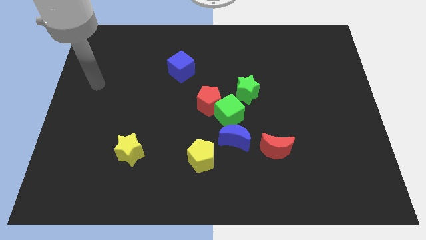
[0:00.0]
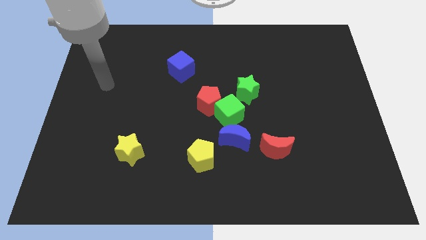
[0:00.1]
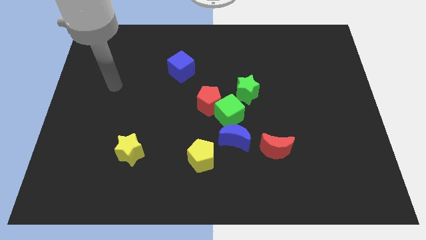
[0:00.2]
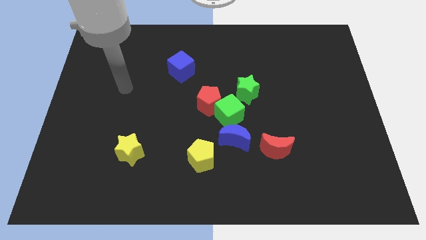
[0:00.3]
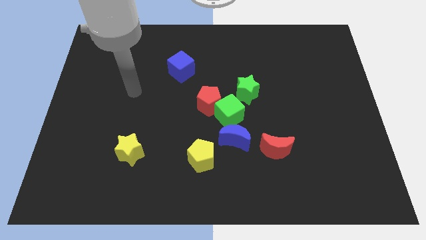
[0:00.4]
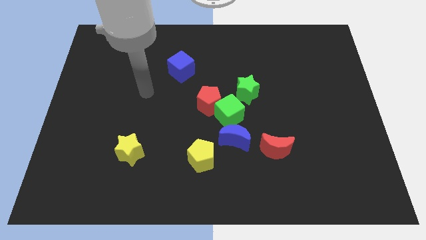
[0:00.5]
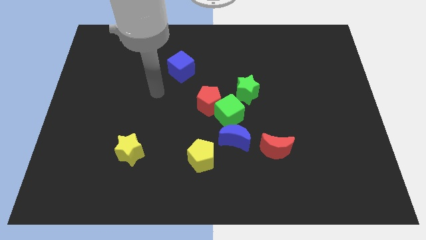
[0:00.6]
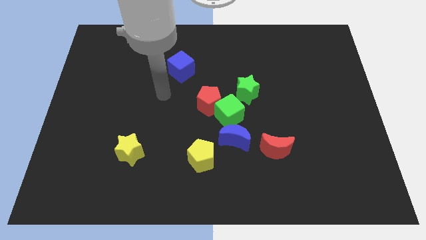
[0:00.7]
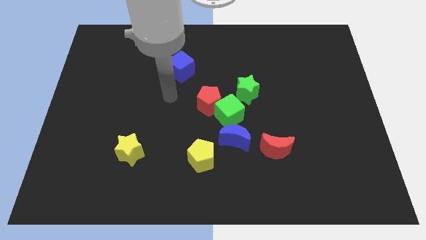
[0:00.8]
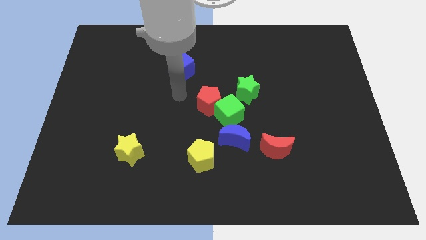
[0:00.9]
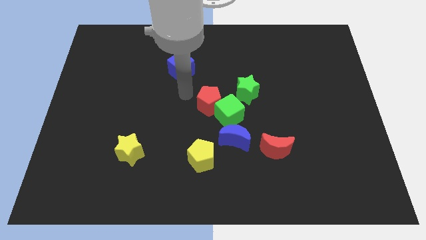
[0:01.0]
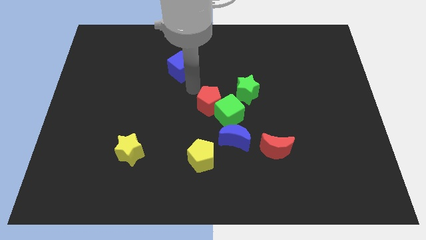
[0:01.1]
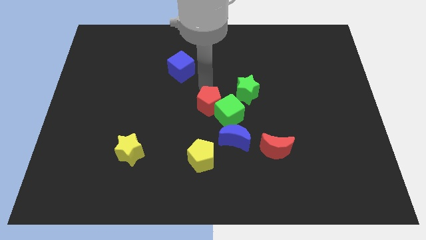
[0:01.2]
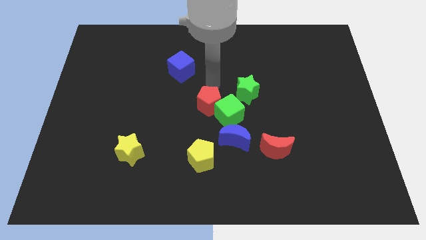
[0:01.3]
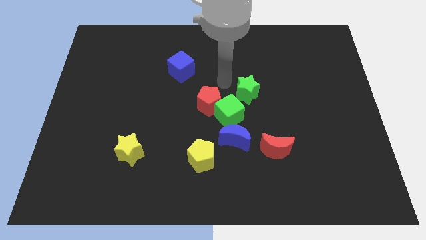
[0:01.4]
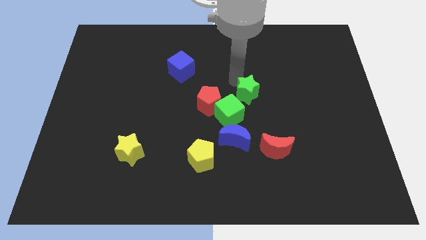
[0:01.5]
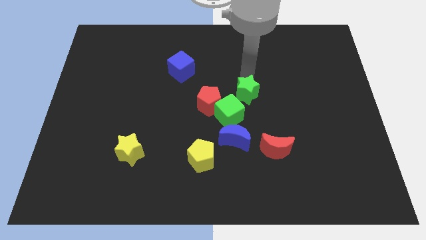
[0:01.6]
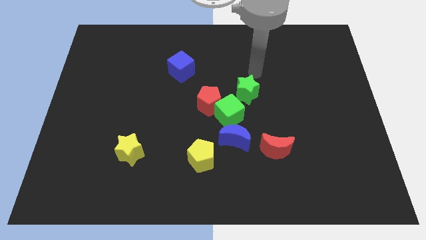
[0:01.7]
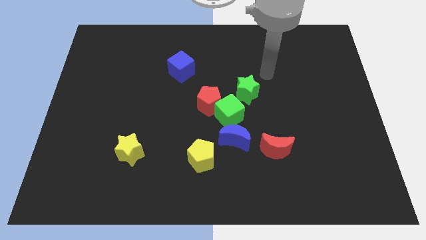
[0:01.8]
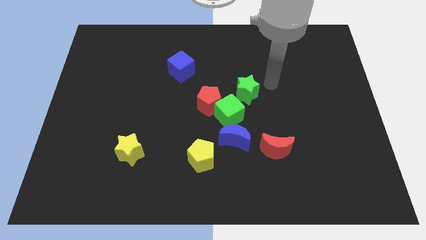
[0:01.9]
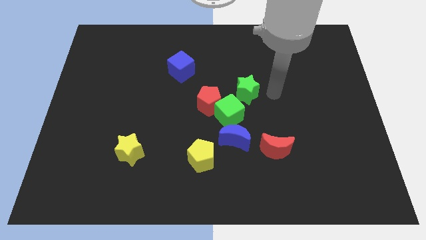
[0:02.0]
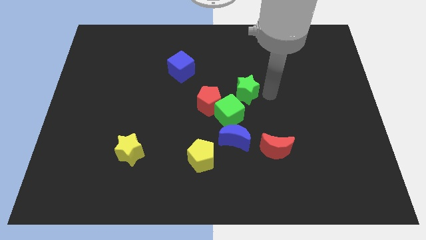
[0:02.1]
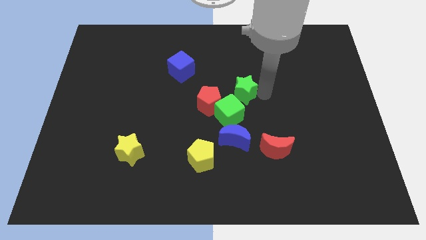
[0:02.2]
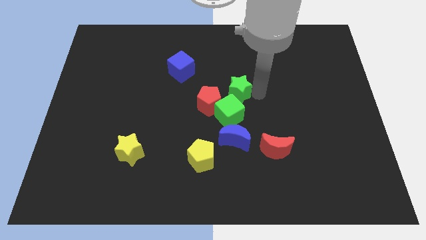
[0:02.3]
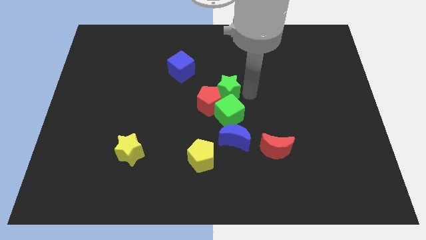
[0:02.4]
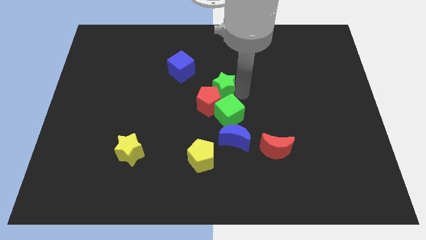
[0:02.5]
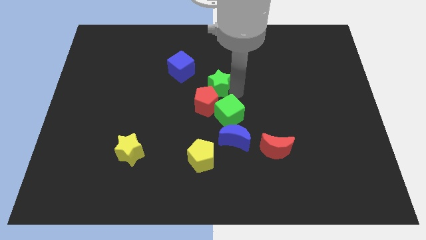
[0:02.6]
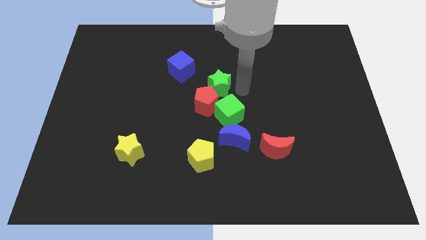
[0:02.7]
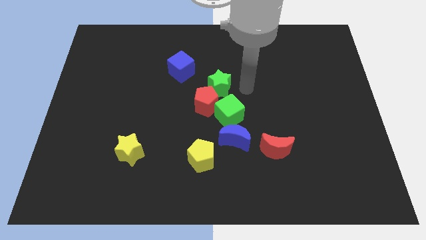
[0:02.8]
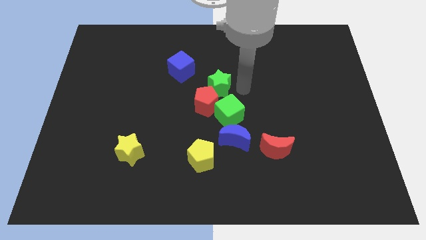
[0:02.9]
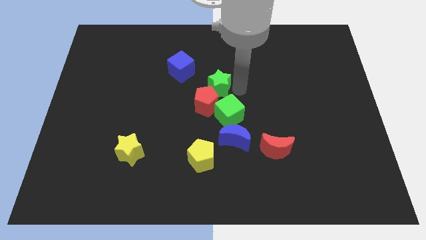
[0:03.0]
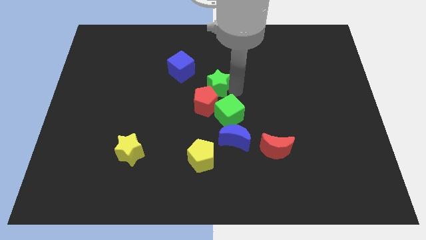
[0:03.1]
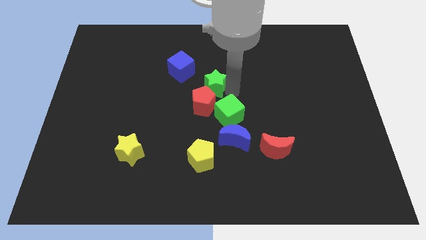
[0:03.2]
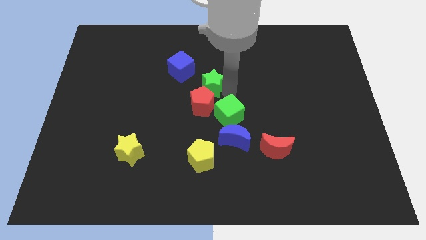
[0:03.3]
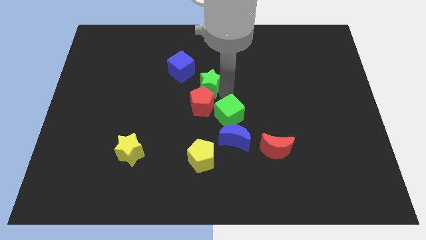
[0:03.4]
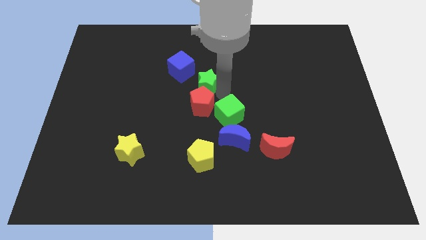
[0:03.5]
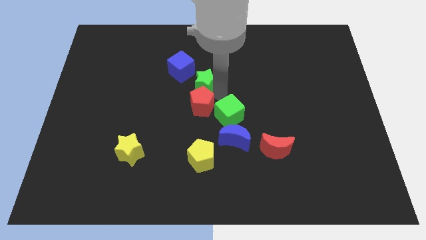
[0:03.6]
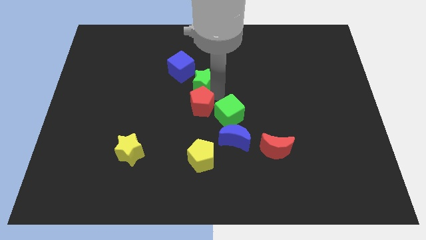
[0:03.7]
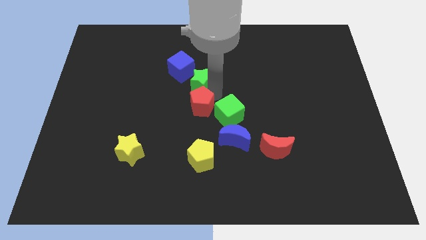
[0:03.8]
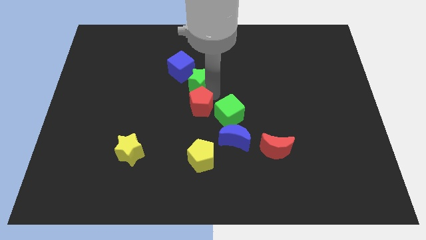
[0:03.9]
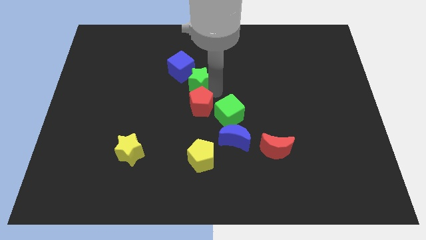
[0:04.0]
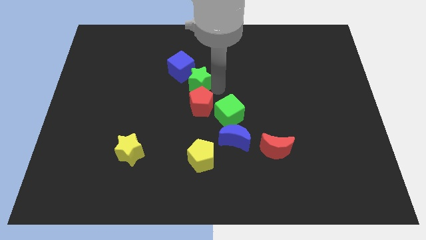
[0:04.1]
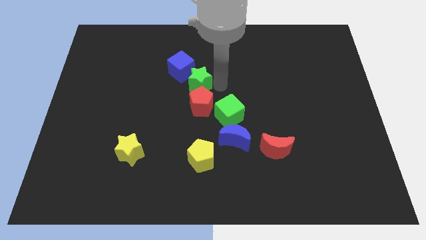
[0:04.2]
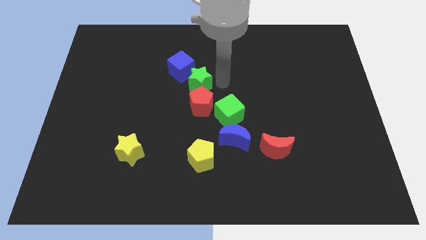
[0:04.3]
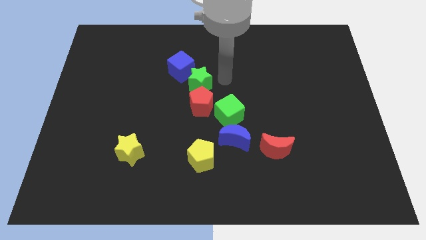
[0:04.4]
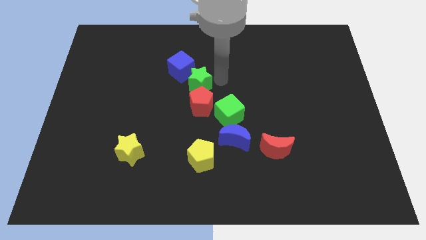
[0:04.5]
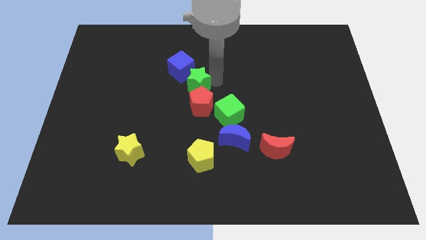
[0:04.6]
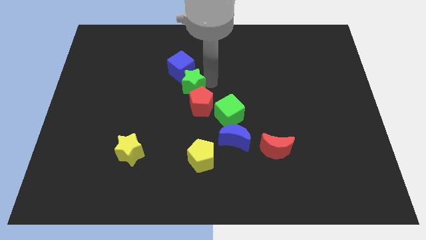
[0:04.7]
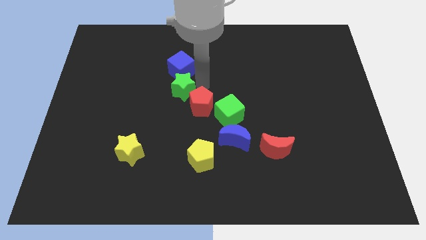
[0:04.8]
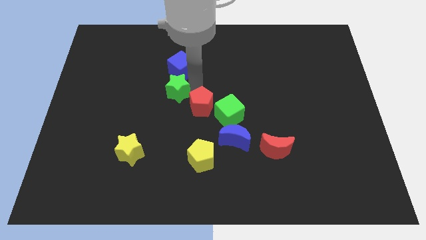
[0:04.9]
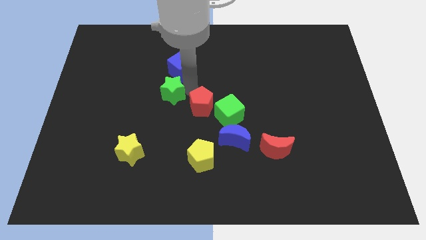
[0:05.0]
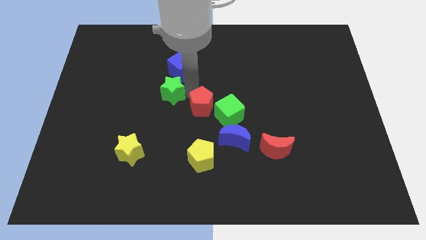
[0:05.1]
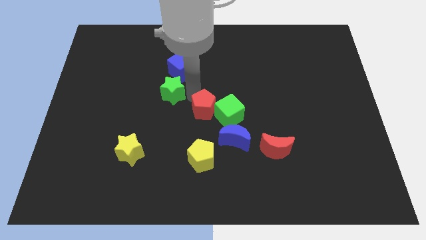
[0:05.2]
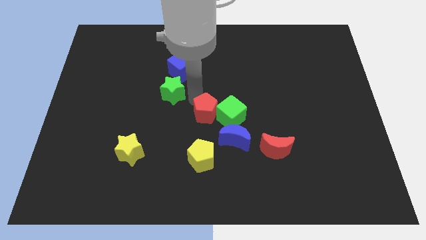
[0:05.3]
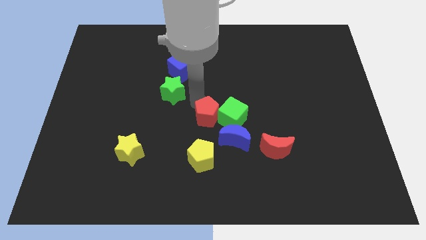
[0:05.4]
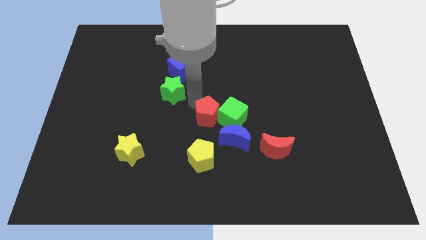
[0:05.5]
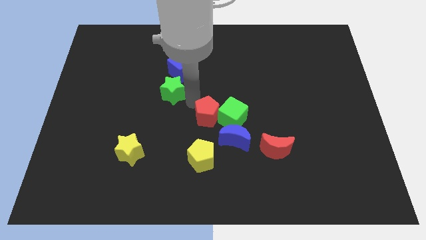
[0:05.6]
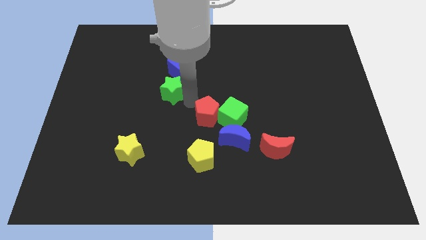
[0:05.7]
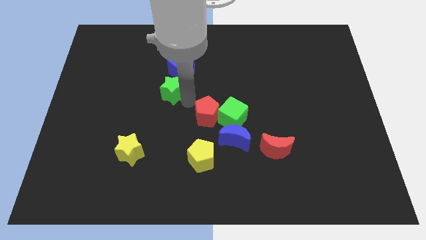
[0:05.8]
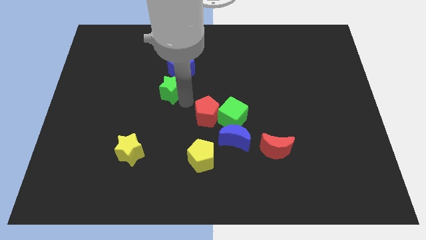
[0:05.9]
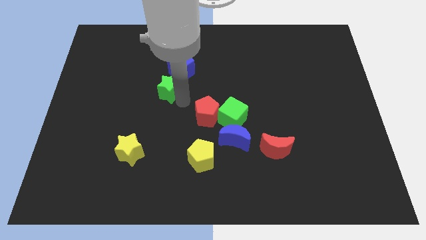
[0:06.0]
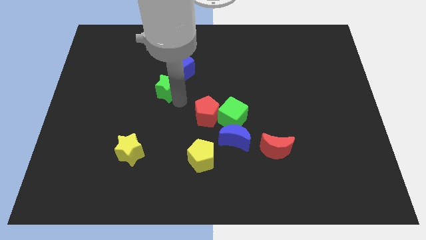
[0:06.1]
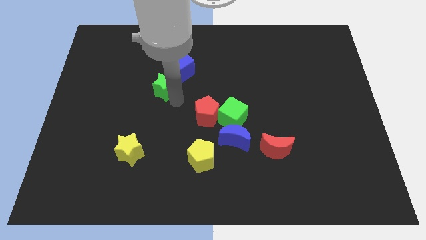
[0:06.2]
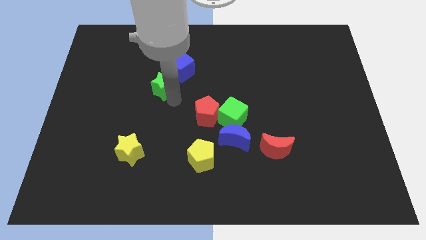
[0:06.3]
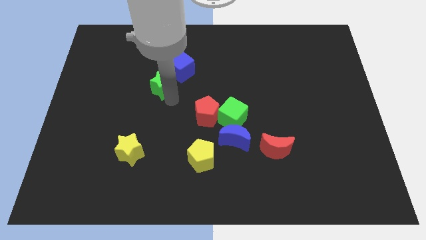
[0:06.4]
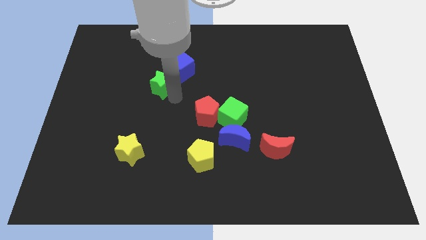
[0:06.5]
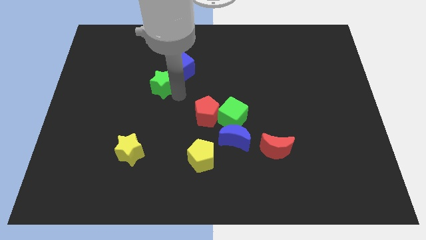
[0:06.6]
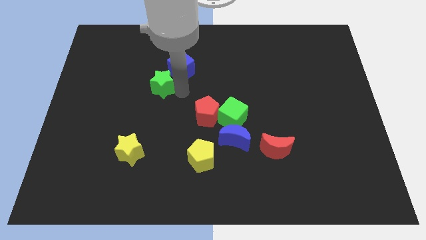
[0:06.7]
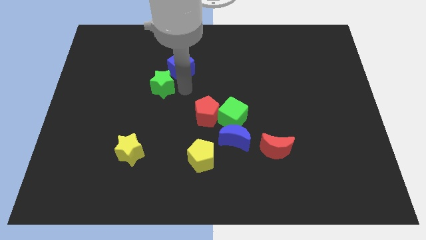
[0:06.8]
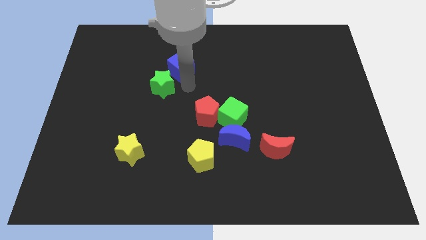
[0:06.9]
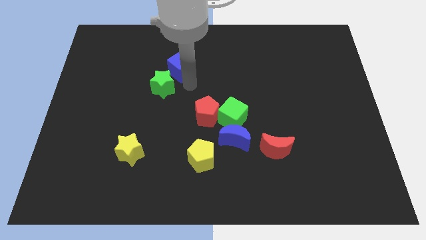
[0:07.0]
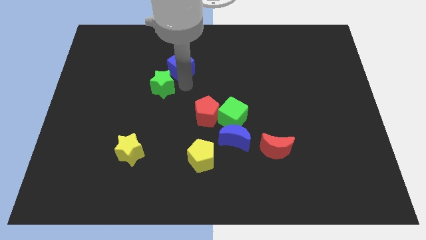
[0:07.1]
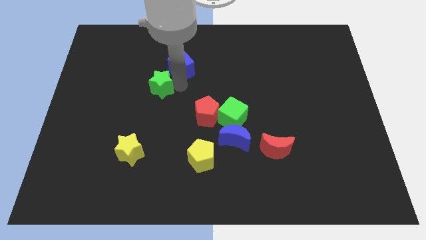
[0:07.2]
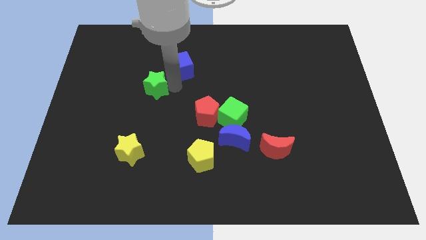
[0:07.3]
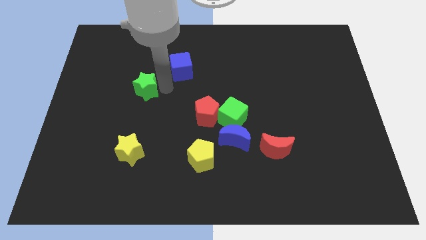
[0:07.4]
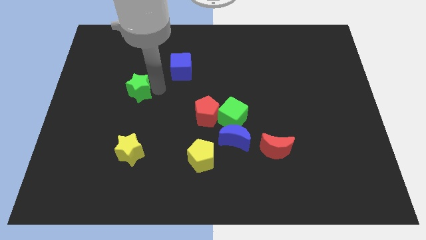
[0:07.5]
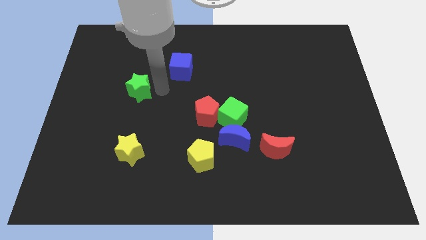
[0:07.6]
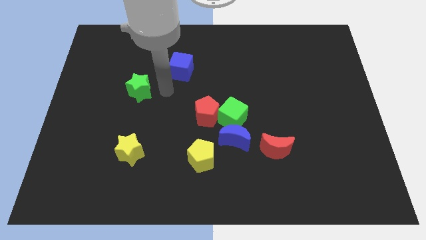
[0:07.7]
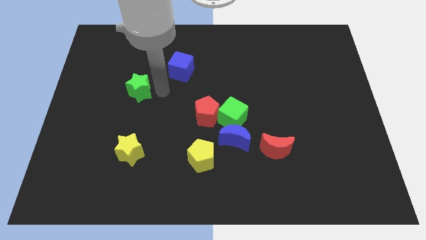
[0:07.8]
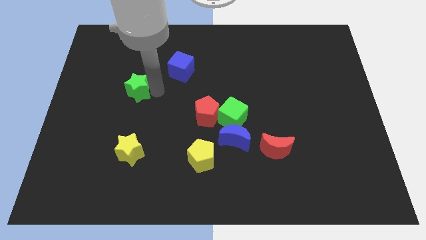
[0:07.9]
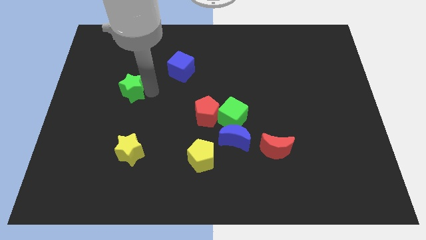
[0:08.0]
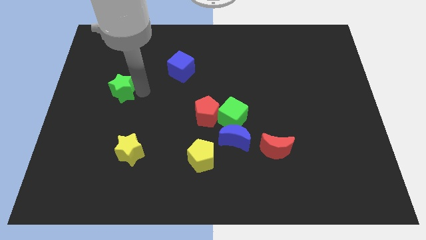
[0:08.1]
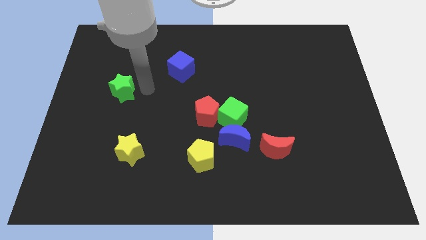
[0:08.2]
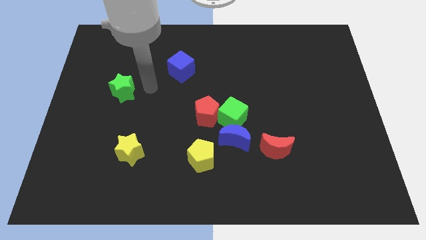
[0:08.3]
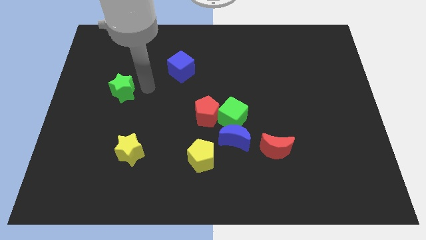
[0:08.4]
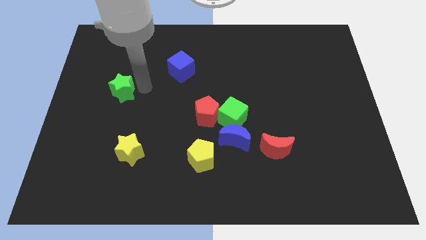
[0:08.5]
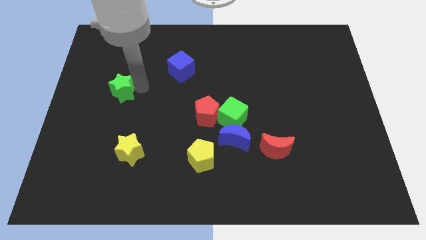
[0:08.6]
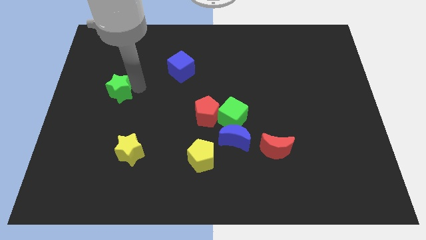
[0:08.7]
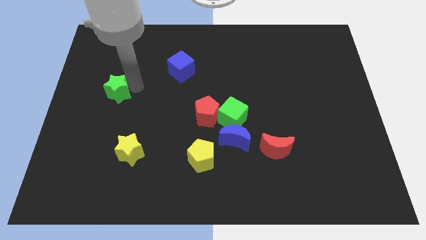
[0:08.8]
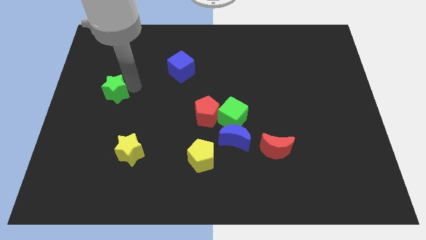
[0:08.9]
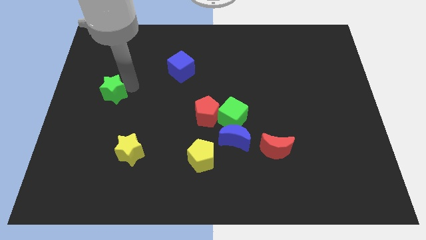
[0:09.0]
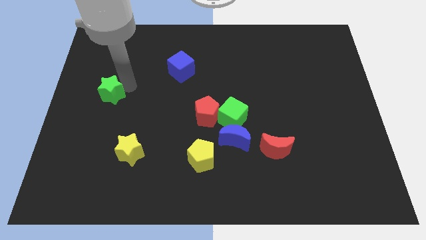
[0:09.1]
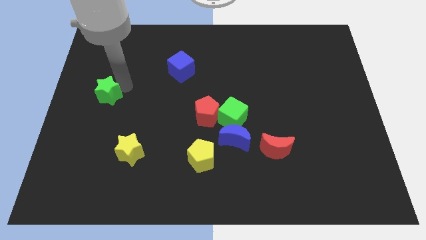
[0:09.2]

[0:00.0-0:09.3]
push the green star to the center left
